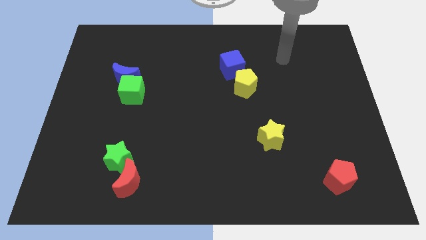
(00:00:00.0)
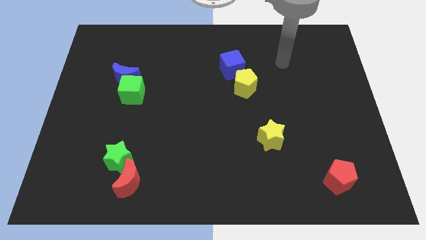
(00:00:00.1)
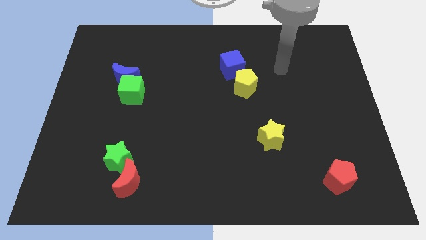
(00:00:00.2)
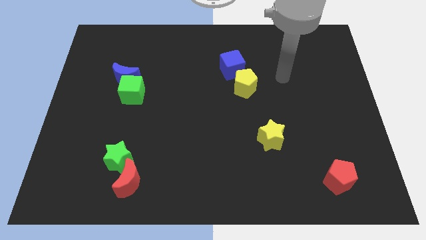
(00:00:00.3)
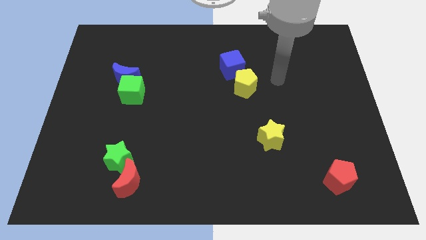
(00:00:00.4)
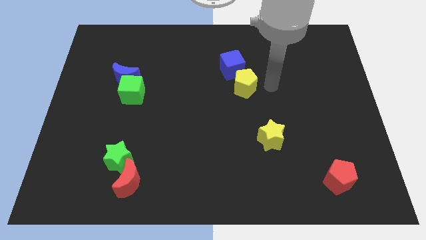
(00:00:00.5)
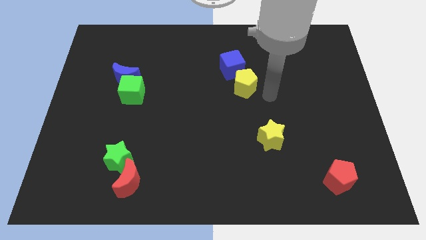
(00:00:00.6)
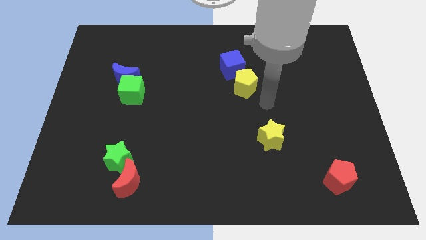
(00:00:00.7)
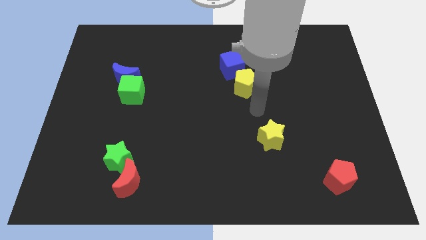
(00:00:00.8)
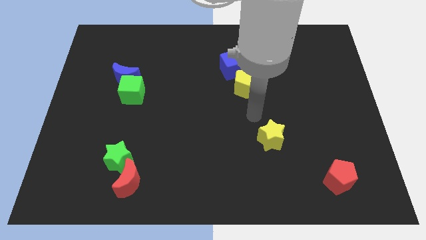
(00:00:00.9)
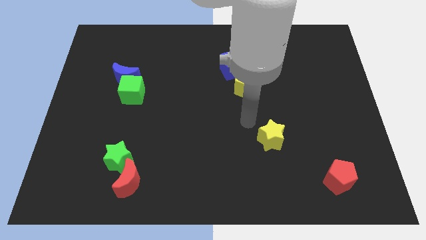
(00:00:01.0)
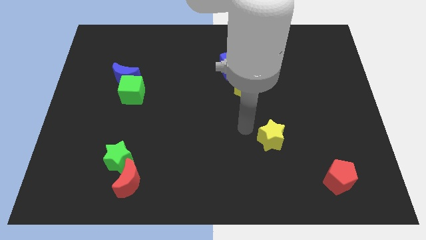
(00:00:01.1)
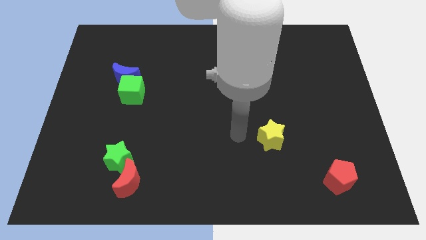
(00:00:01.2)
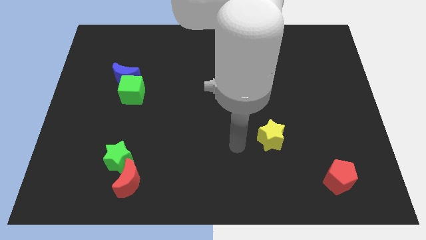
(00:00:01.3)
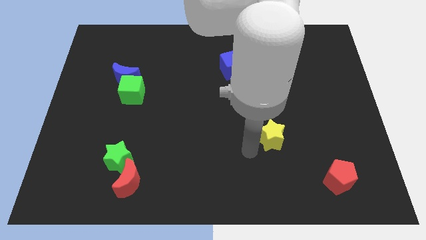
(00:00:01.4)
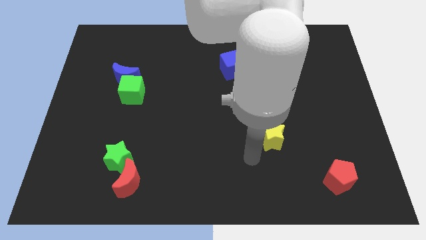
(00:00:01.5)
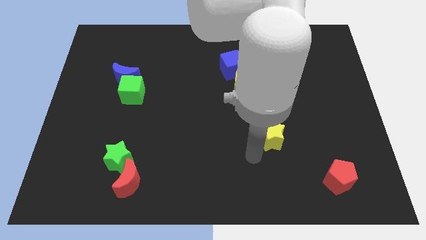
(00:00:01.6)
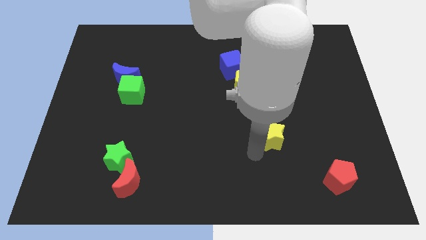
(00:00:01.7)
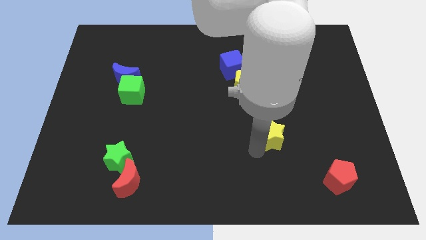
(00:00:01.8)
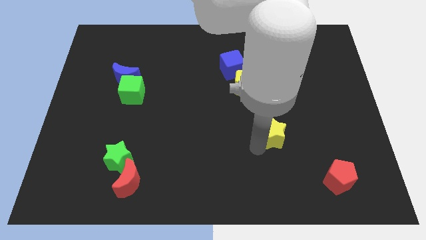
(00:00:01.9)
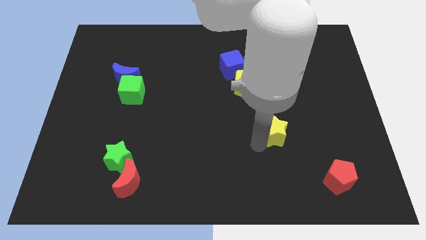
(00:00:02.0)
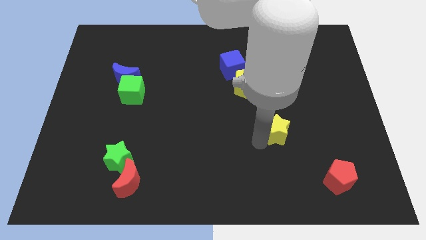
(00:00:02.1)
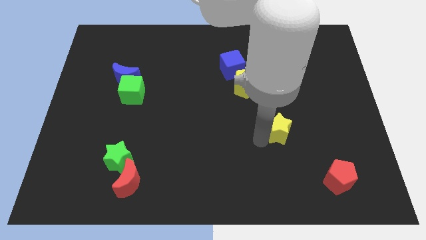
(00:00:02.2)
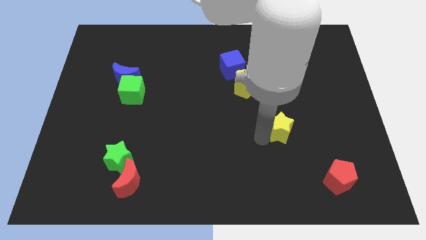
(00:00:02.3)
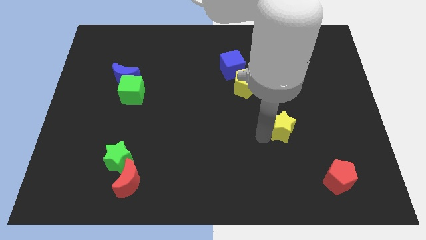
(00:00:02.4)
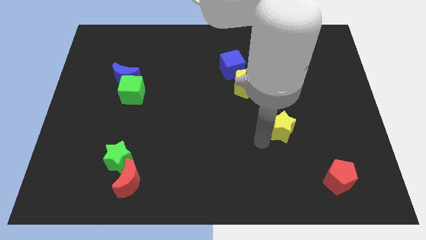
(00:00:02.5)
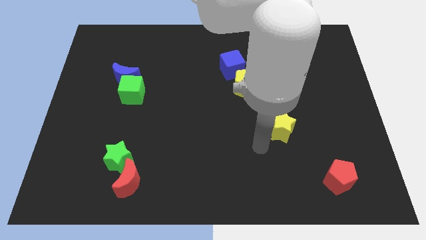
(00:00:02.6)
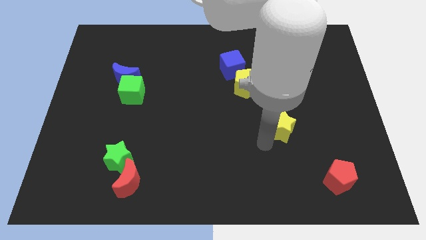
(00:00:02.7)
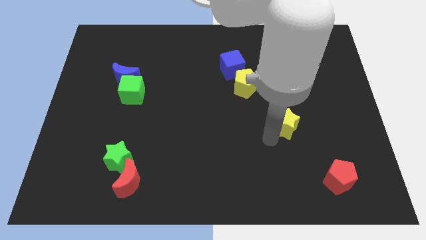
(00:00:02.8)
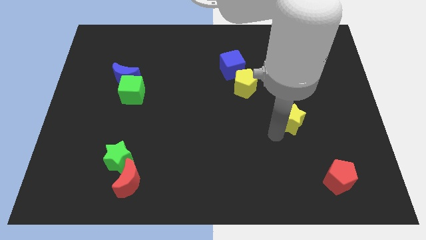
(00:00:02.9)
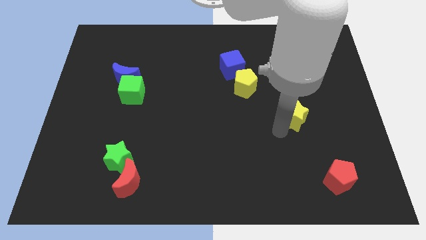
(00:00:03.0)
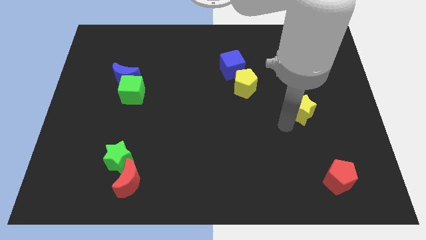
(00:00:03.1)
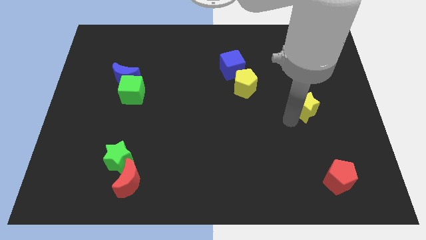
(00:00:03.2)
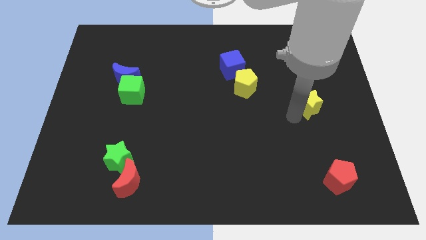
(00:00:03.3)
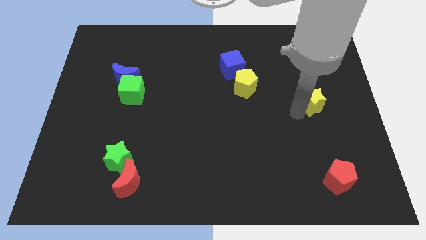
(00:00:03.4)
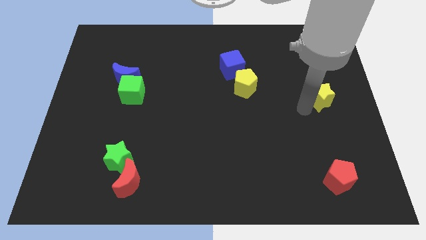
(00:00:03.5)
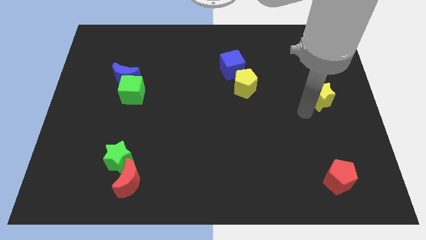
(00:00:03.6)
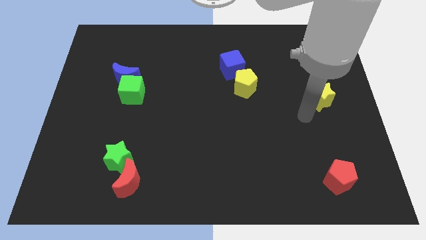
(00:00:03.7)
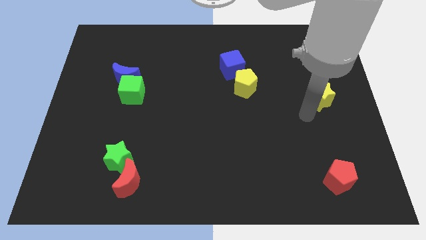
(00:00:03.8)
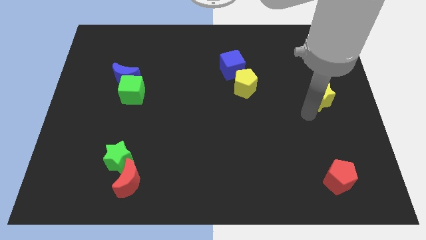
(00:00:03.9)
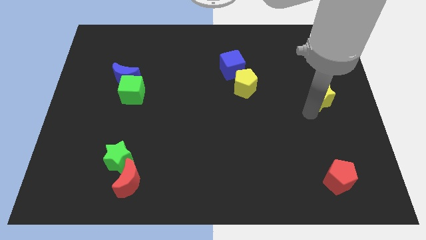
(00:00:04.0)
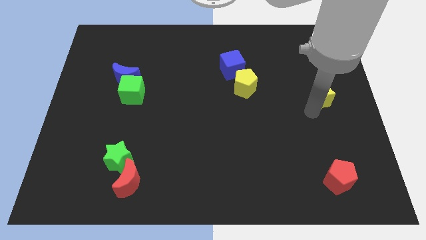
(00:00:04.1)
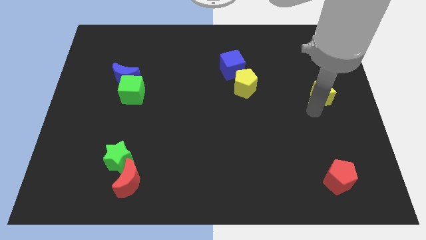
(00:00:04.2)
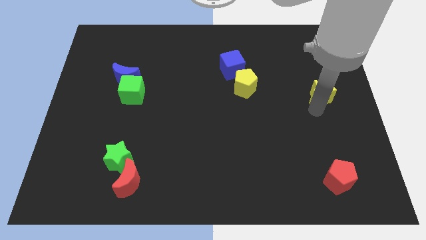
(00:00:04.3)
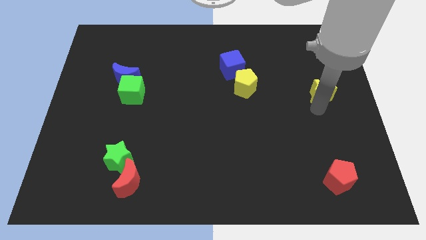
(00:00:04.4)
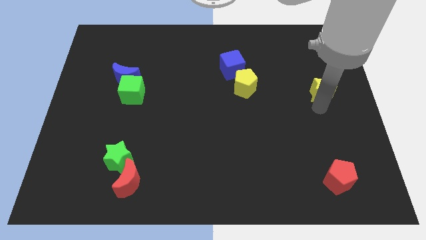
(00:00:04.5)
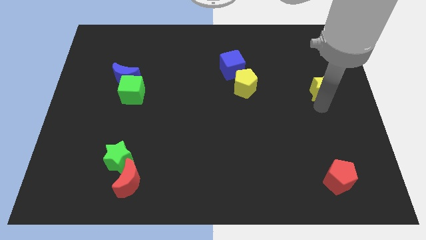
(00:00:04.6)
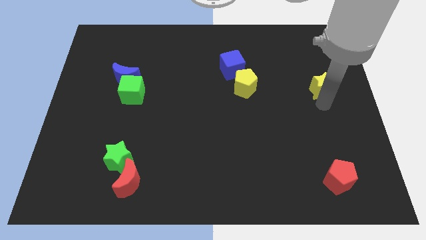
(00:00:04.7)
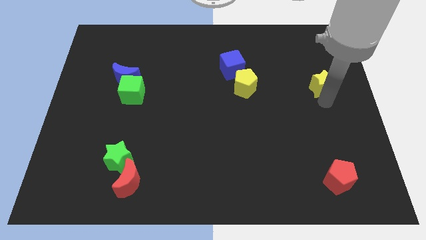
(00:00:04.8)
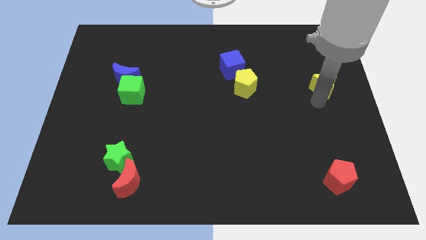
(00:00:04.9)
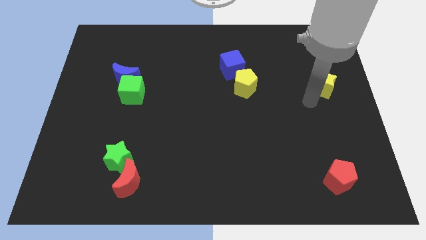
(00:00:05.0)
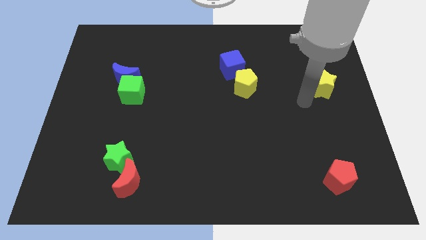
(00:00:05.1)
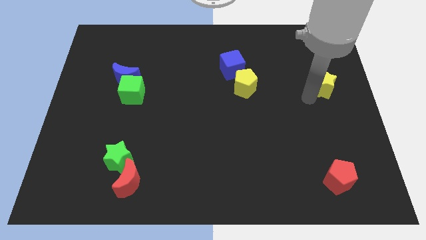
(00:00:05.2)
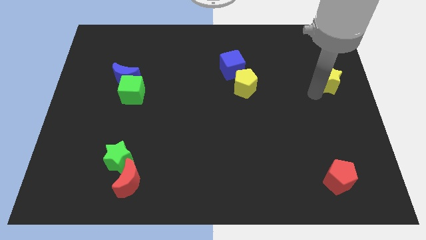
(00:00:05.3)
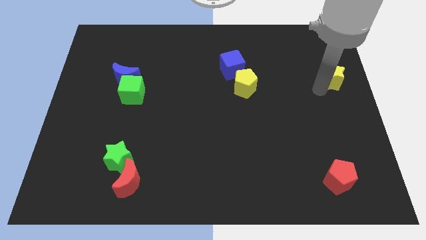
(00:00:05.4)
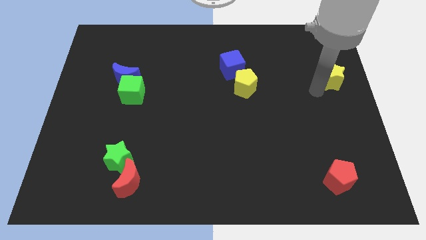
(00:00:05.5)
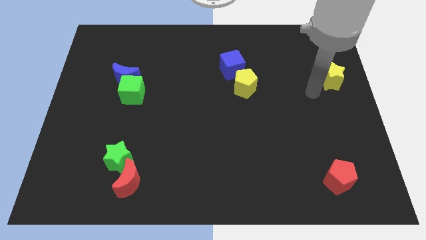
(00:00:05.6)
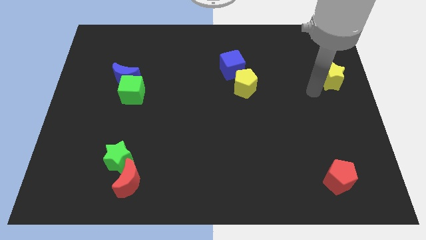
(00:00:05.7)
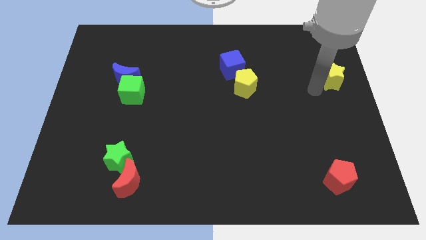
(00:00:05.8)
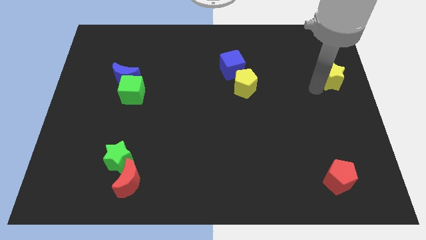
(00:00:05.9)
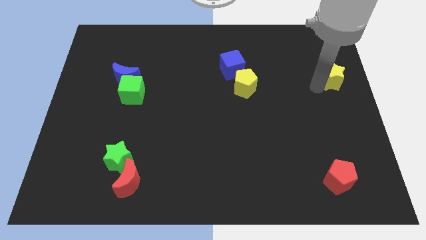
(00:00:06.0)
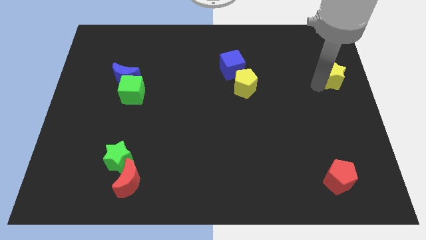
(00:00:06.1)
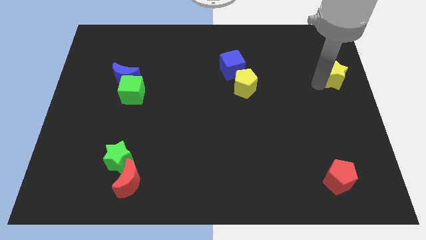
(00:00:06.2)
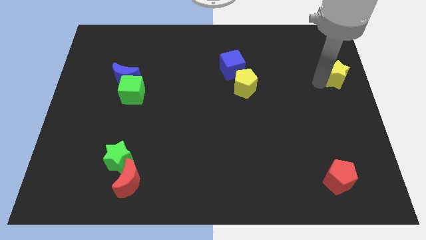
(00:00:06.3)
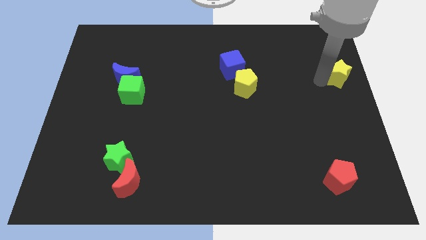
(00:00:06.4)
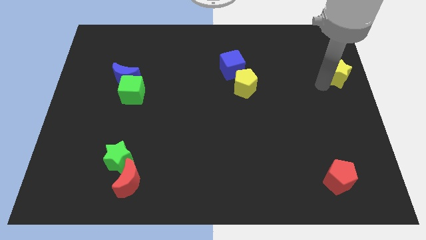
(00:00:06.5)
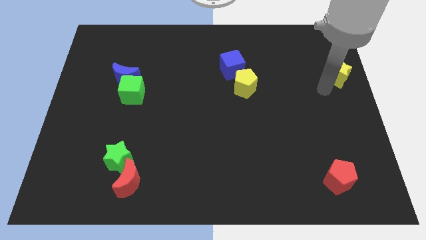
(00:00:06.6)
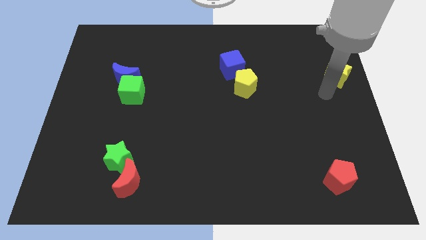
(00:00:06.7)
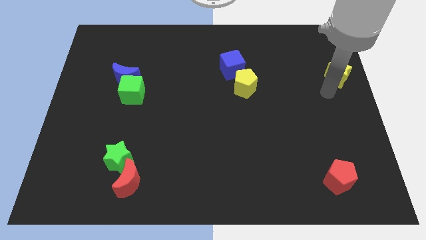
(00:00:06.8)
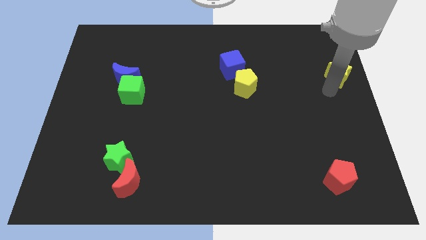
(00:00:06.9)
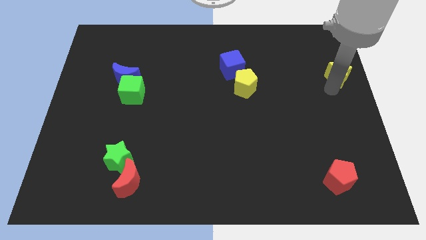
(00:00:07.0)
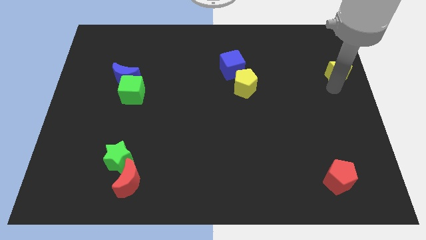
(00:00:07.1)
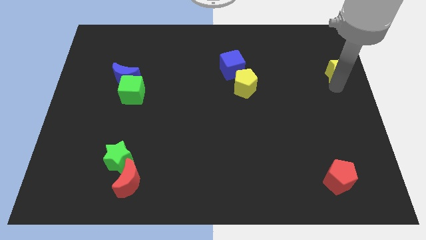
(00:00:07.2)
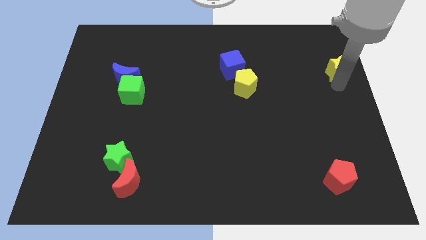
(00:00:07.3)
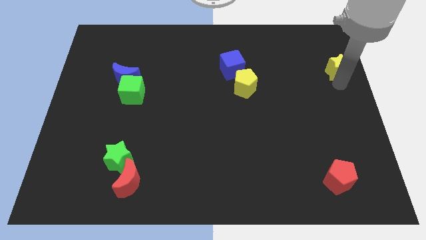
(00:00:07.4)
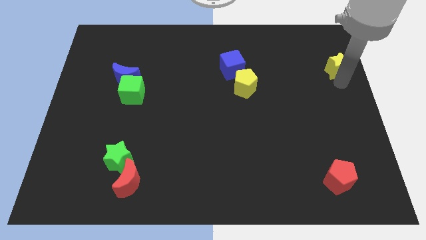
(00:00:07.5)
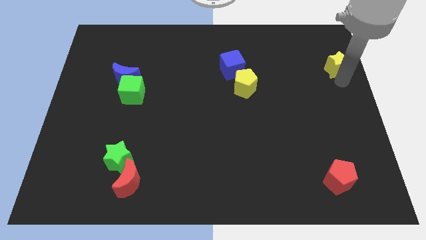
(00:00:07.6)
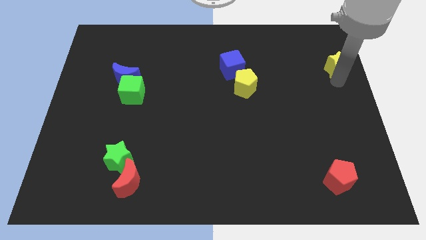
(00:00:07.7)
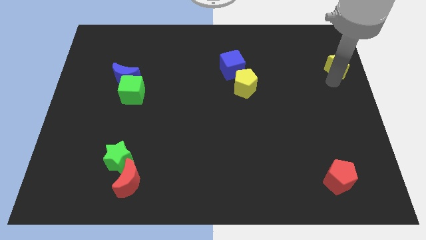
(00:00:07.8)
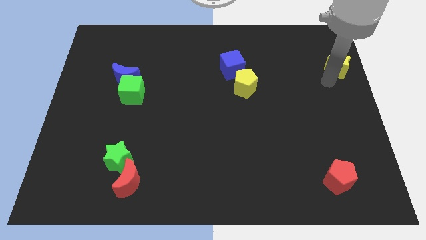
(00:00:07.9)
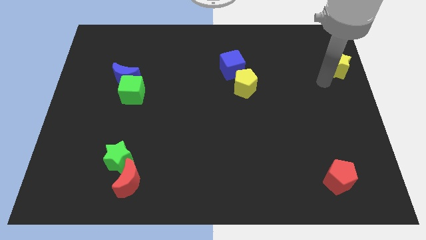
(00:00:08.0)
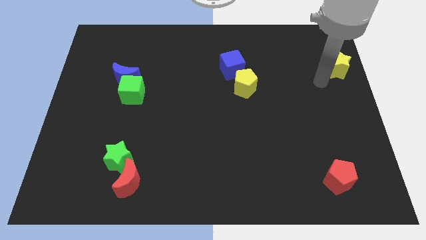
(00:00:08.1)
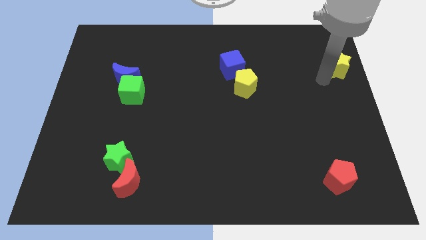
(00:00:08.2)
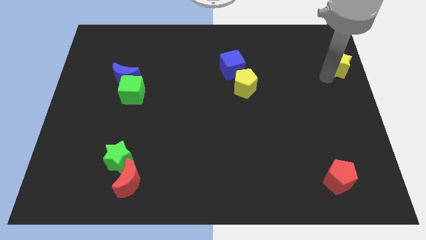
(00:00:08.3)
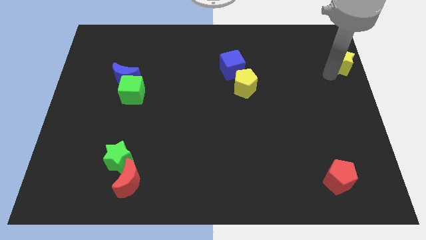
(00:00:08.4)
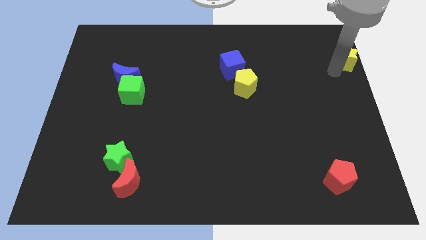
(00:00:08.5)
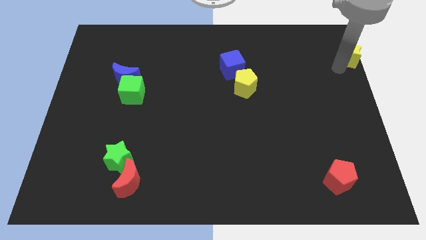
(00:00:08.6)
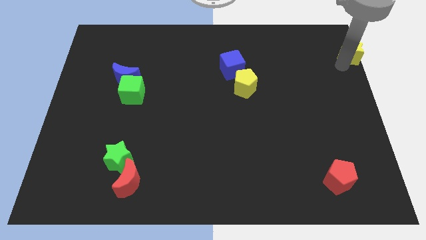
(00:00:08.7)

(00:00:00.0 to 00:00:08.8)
put the yellow star to the upper right corner
